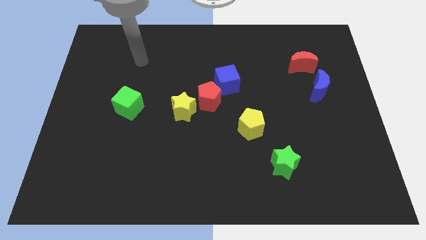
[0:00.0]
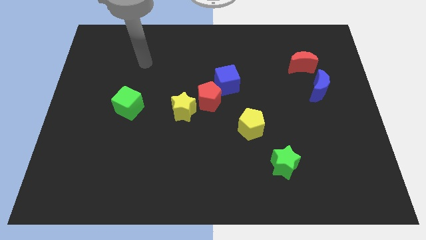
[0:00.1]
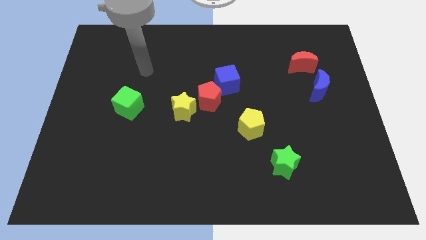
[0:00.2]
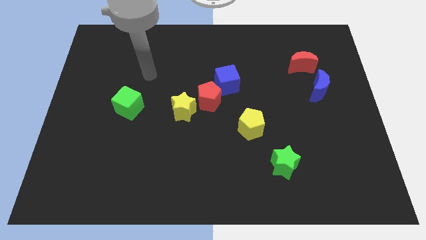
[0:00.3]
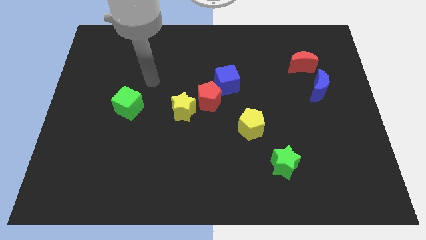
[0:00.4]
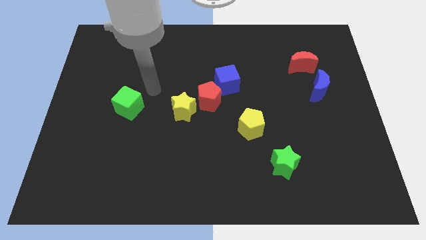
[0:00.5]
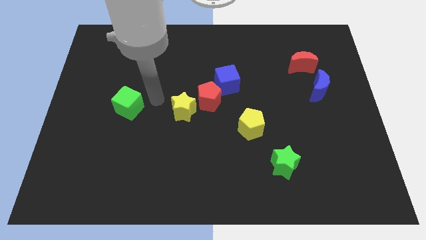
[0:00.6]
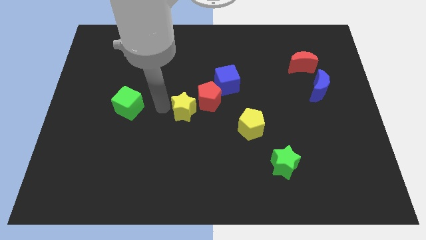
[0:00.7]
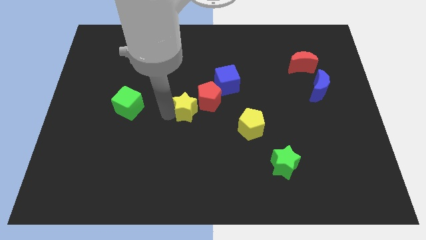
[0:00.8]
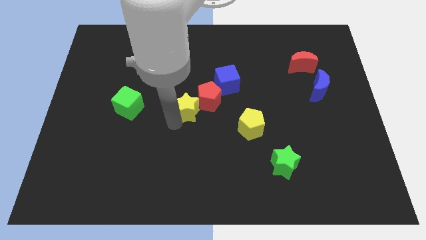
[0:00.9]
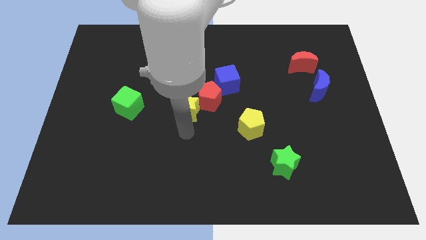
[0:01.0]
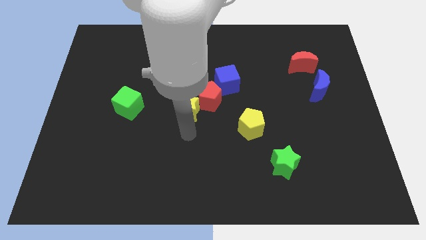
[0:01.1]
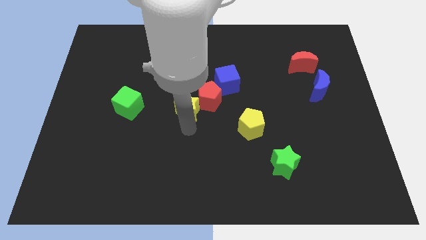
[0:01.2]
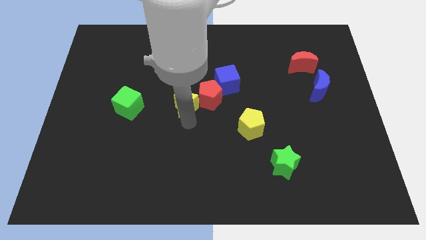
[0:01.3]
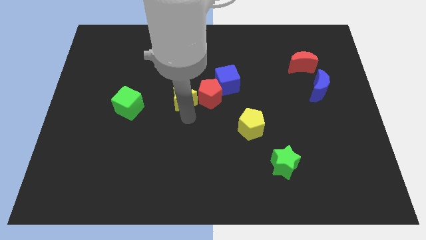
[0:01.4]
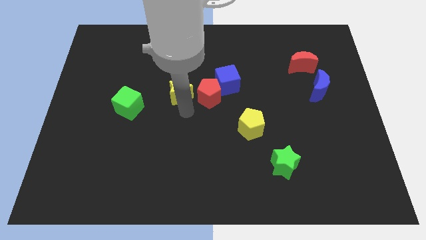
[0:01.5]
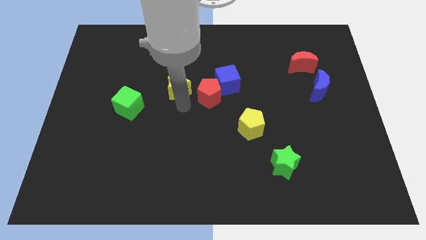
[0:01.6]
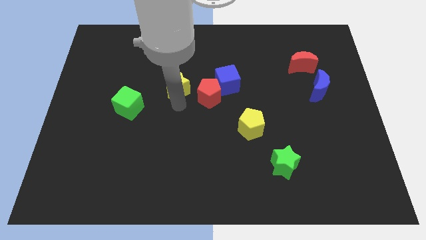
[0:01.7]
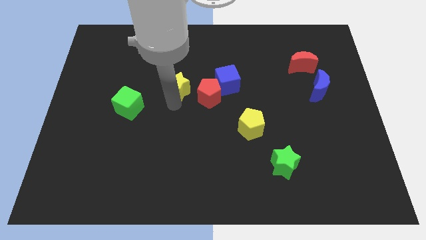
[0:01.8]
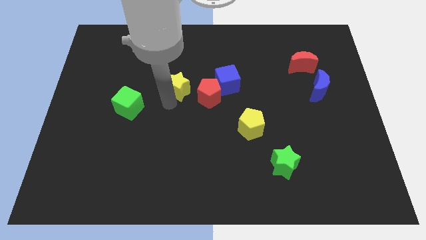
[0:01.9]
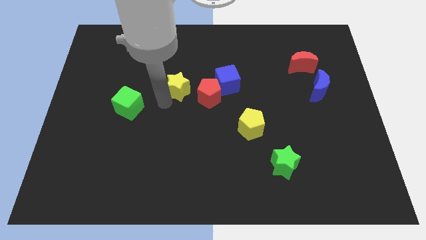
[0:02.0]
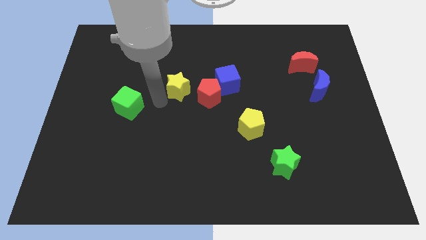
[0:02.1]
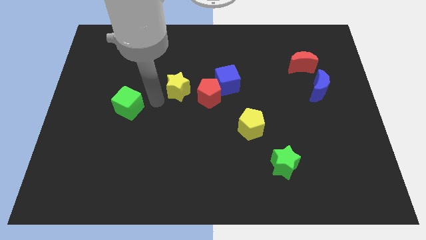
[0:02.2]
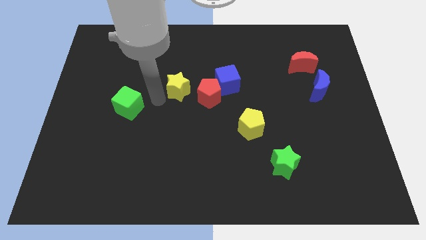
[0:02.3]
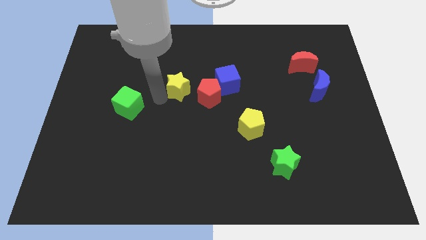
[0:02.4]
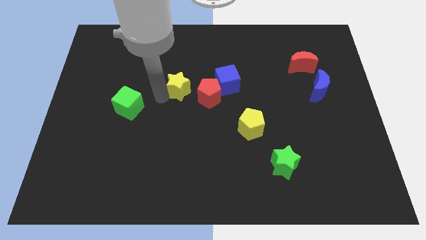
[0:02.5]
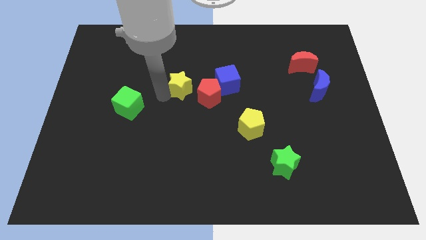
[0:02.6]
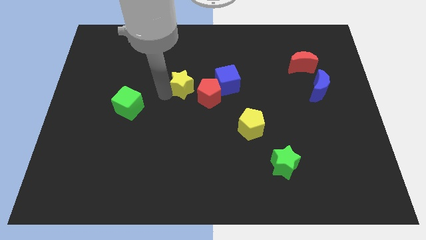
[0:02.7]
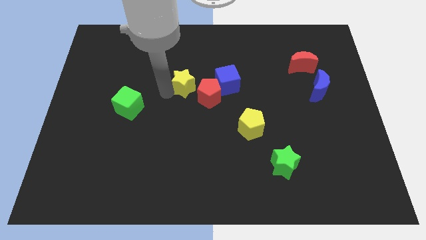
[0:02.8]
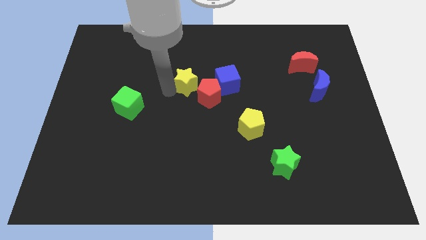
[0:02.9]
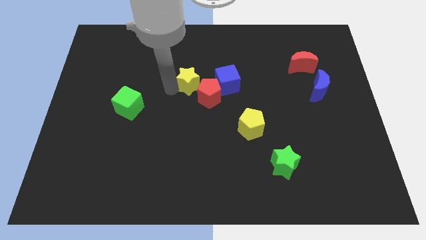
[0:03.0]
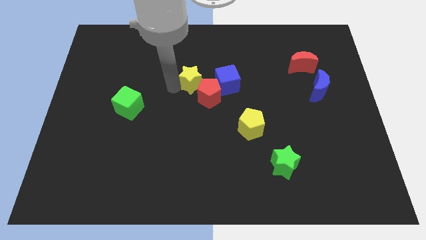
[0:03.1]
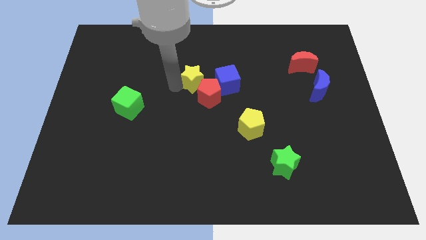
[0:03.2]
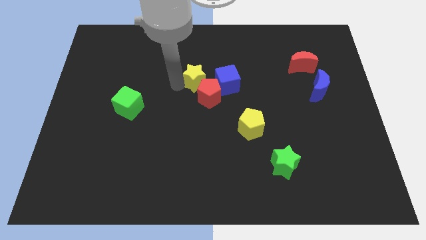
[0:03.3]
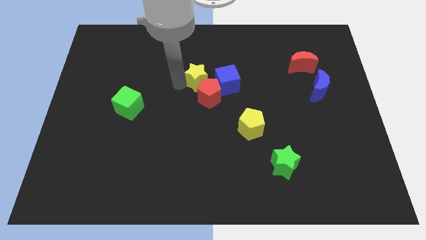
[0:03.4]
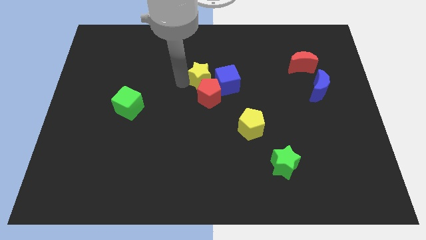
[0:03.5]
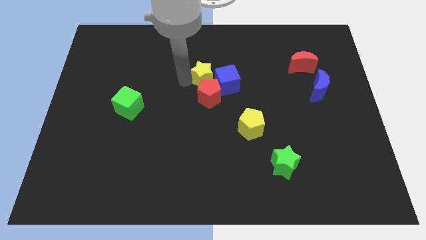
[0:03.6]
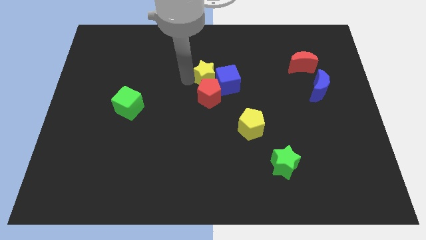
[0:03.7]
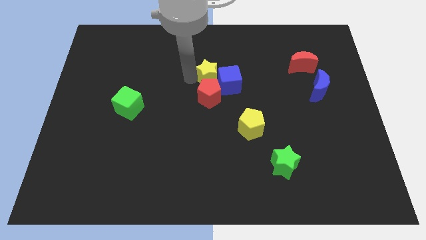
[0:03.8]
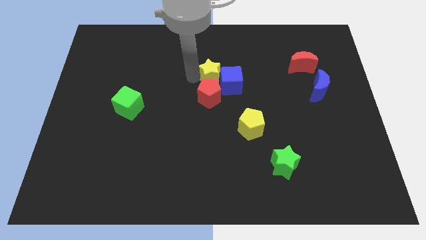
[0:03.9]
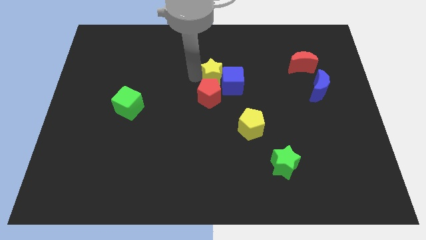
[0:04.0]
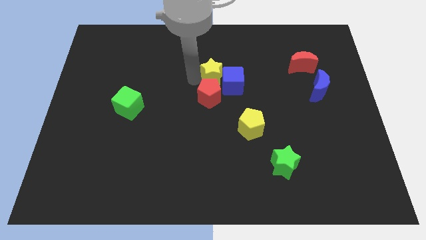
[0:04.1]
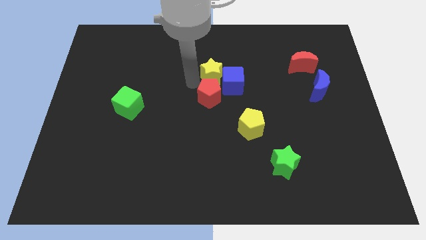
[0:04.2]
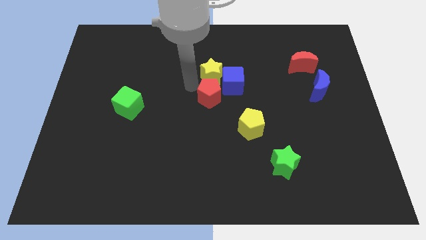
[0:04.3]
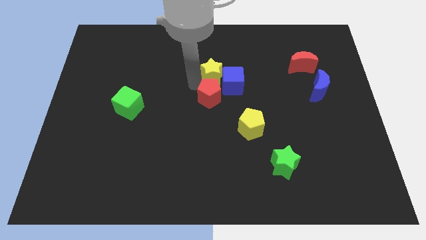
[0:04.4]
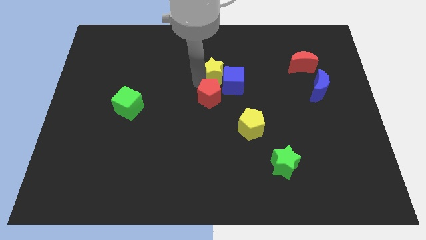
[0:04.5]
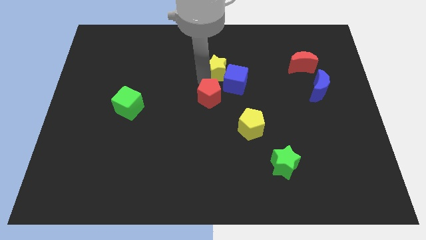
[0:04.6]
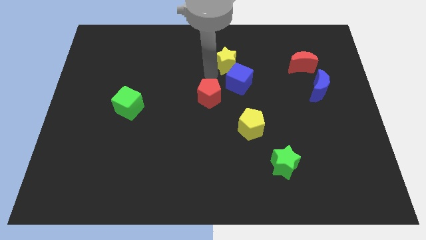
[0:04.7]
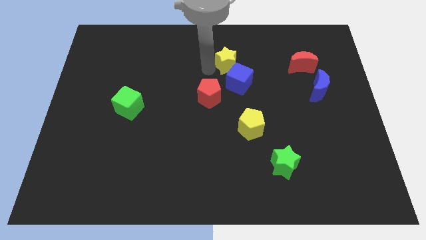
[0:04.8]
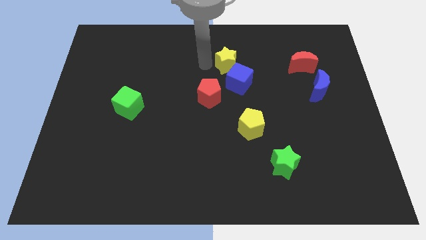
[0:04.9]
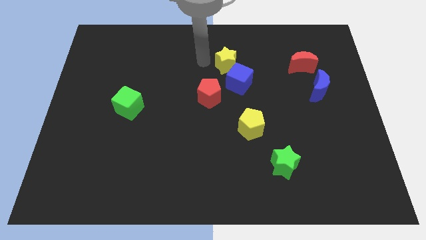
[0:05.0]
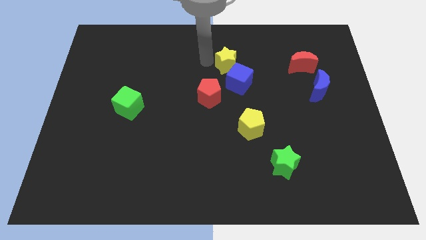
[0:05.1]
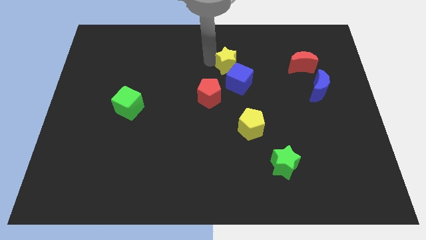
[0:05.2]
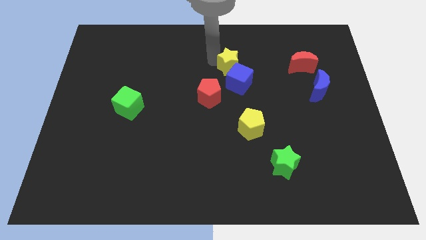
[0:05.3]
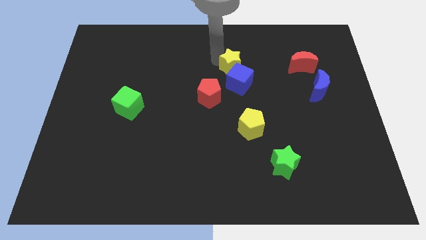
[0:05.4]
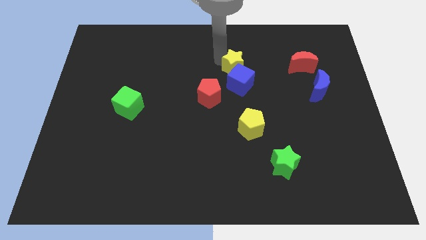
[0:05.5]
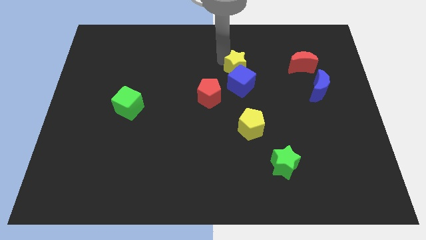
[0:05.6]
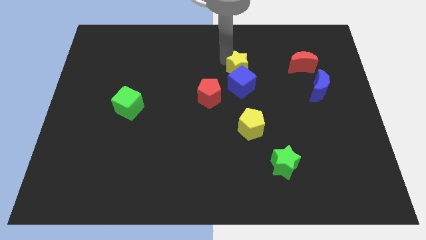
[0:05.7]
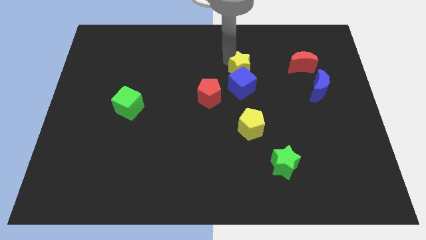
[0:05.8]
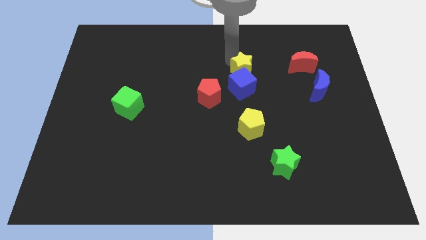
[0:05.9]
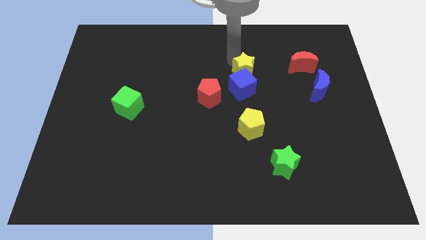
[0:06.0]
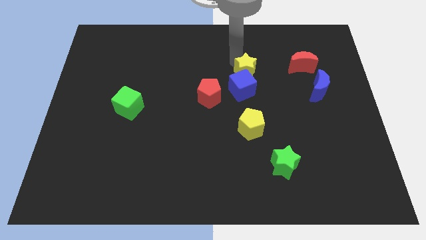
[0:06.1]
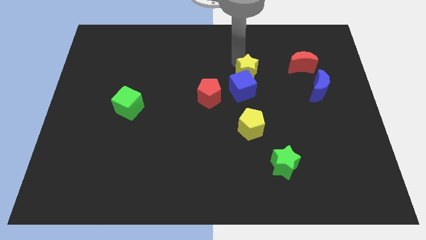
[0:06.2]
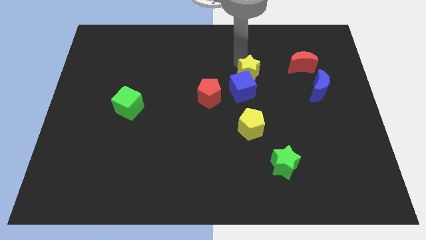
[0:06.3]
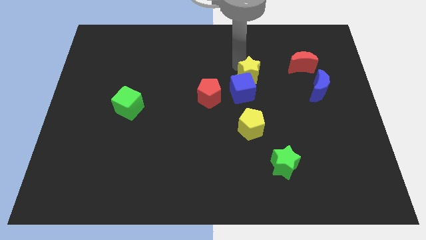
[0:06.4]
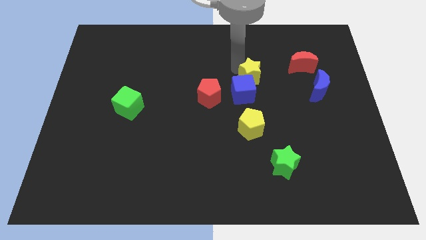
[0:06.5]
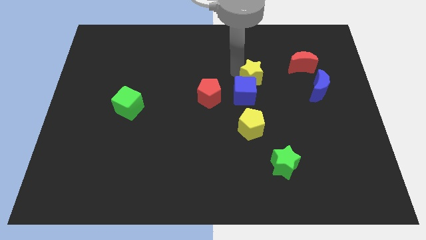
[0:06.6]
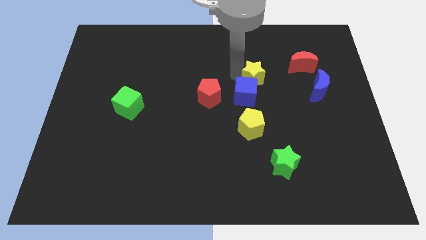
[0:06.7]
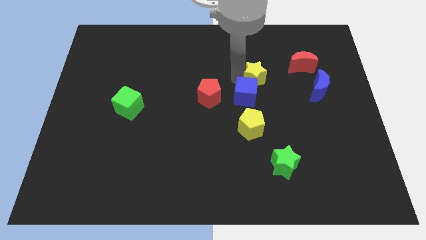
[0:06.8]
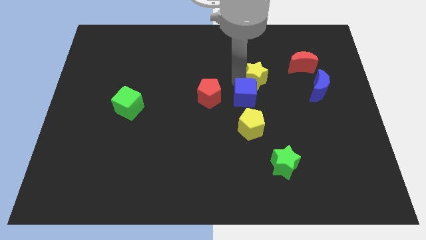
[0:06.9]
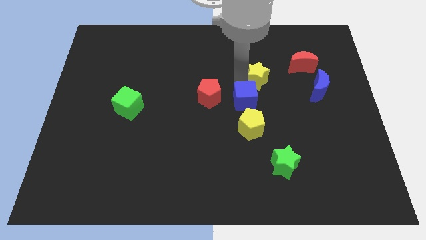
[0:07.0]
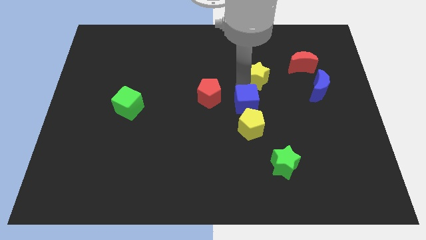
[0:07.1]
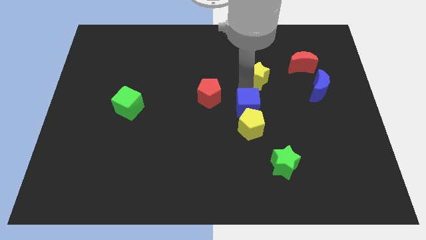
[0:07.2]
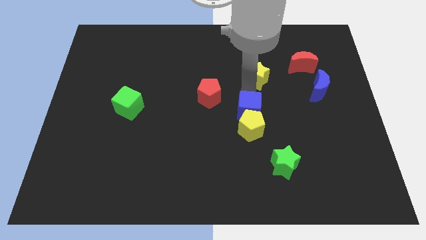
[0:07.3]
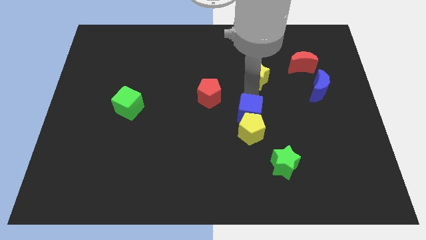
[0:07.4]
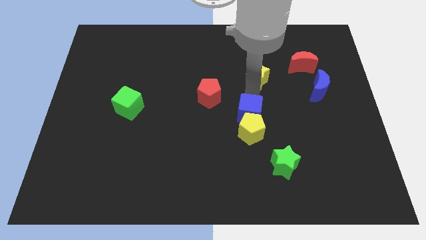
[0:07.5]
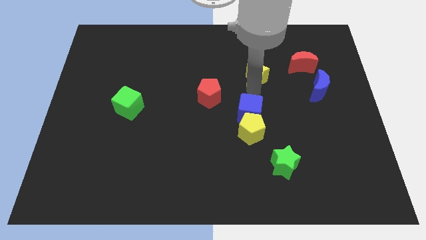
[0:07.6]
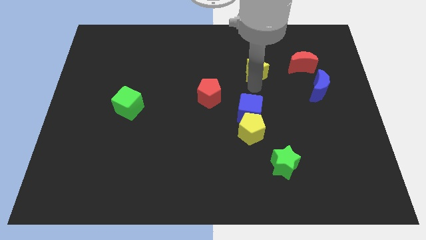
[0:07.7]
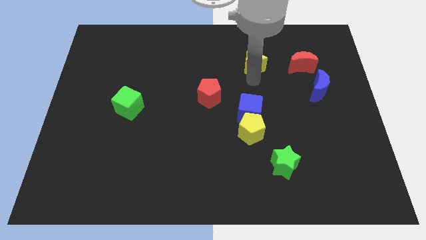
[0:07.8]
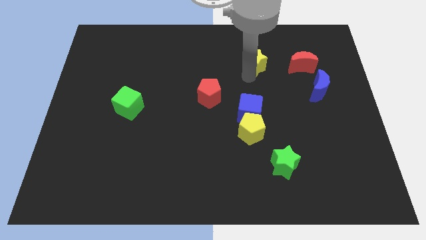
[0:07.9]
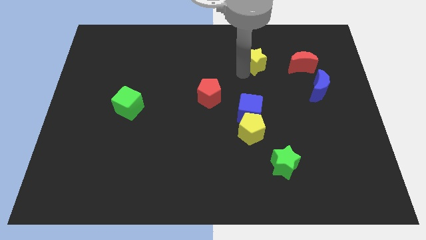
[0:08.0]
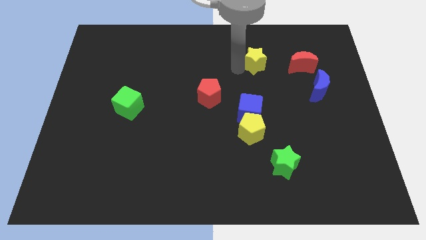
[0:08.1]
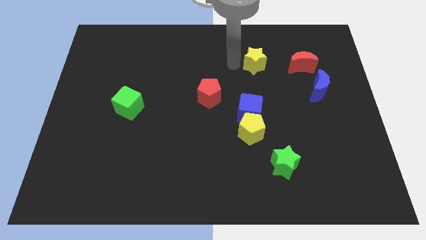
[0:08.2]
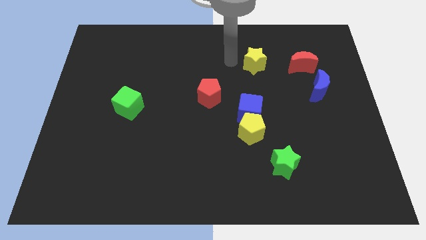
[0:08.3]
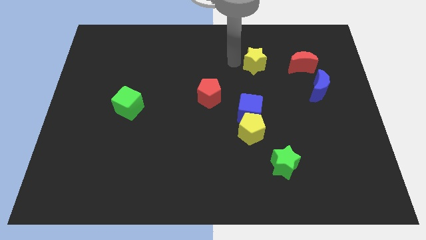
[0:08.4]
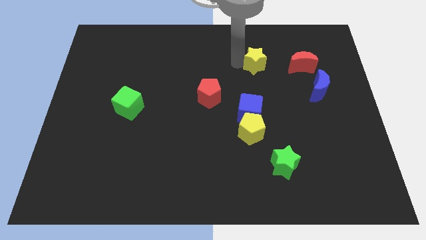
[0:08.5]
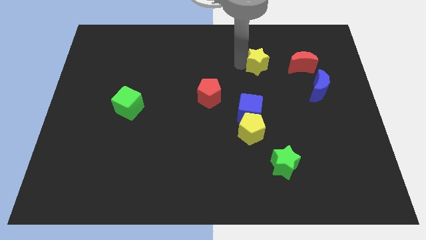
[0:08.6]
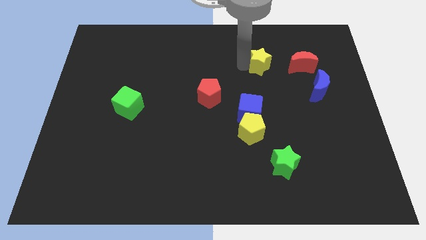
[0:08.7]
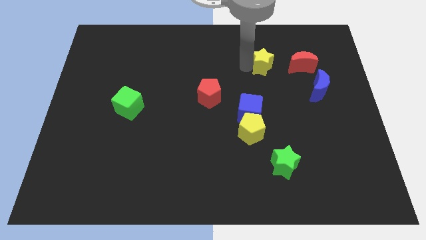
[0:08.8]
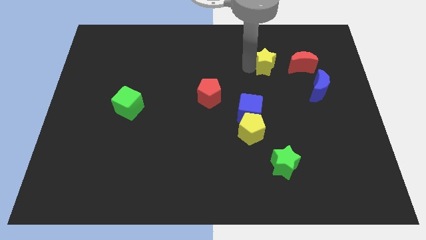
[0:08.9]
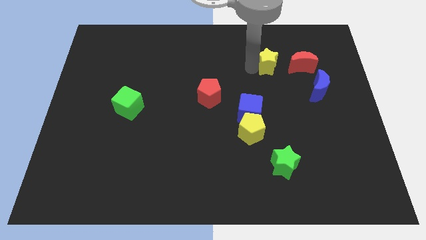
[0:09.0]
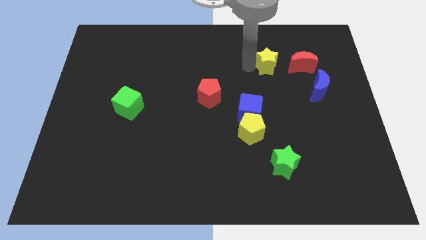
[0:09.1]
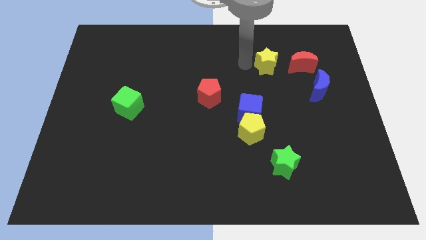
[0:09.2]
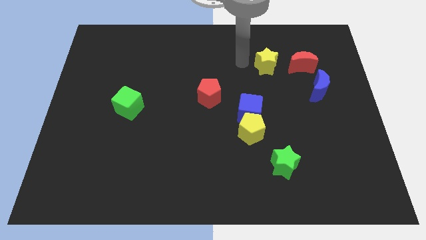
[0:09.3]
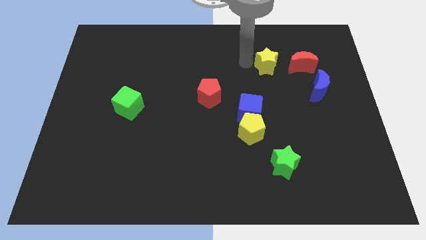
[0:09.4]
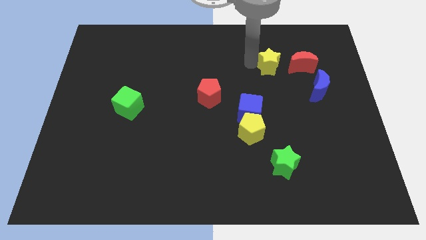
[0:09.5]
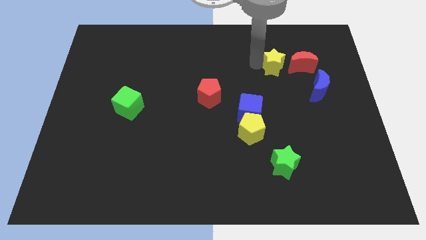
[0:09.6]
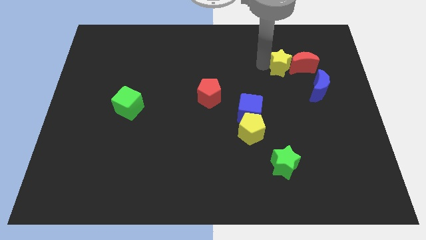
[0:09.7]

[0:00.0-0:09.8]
move the yellow star next to the red moon
